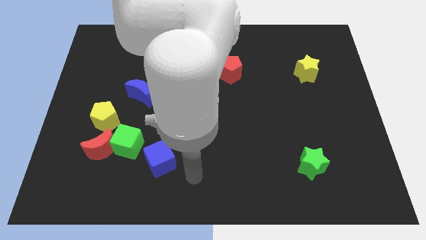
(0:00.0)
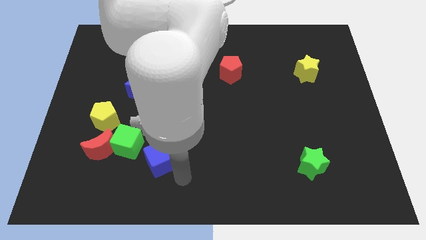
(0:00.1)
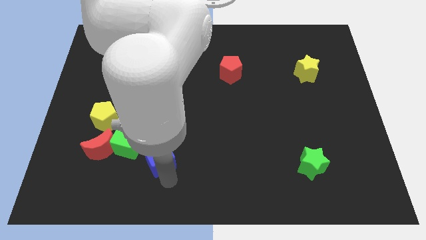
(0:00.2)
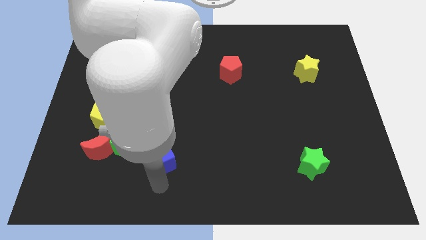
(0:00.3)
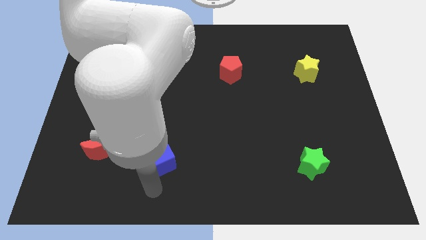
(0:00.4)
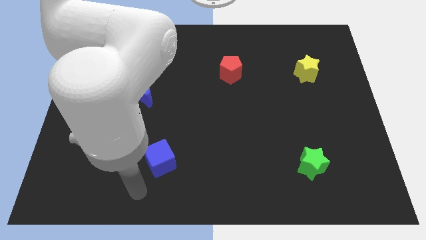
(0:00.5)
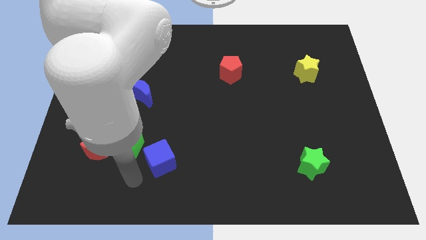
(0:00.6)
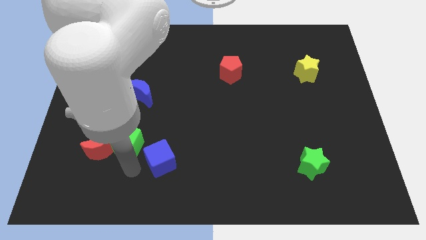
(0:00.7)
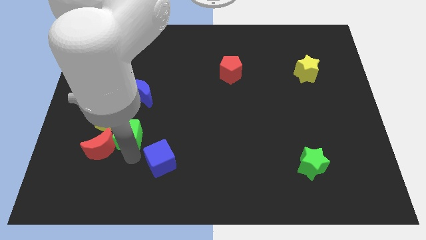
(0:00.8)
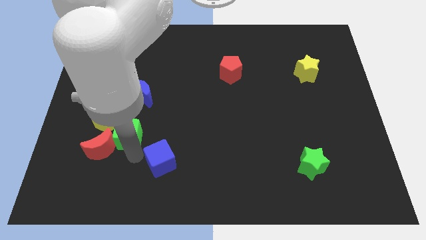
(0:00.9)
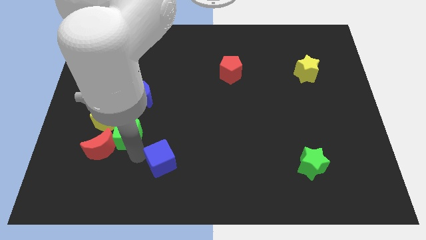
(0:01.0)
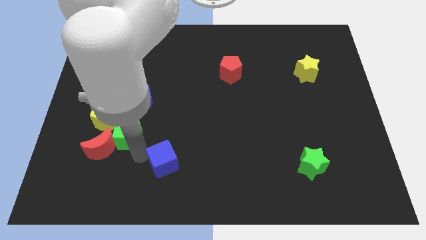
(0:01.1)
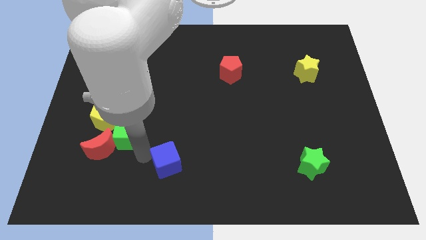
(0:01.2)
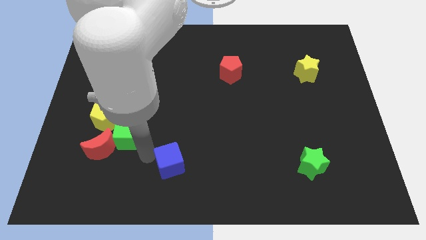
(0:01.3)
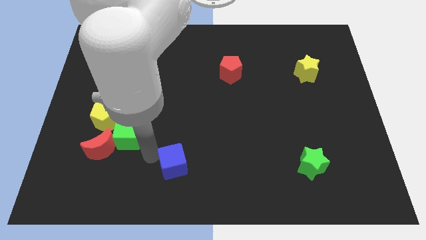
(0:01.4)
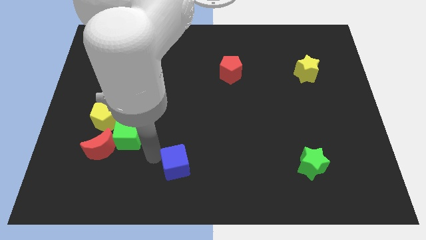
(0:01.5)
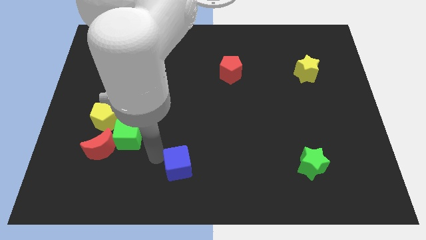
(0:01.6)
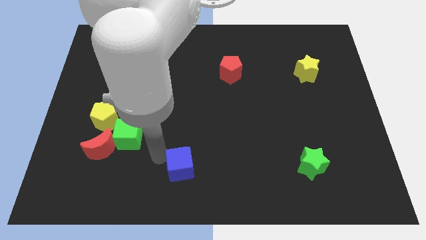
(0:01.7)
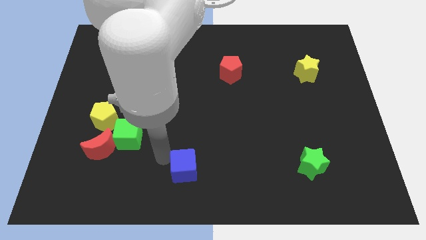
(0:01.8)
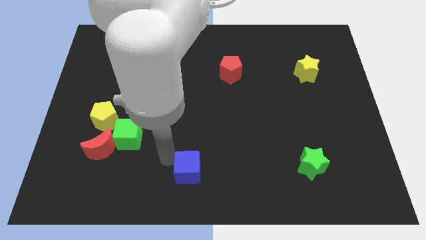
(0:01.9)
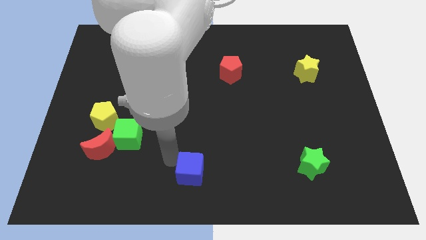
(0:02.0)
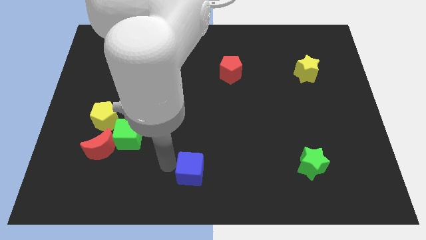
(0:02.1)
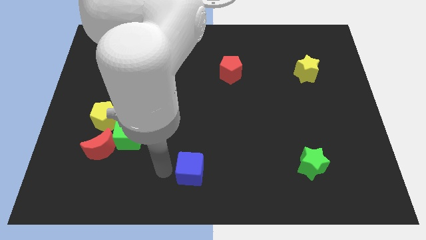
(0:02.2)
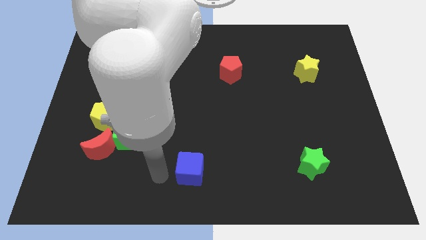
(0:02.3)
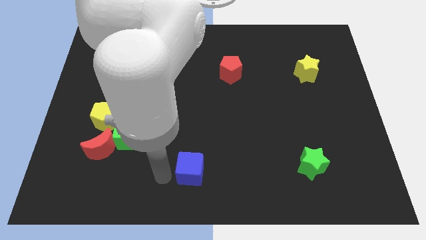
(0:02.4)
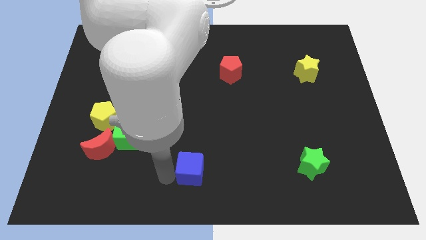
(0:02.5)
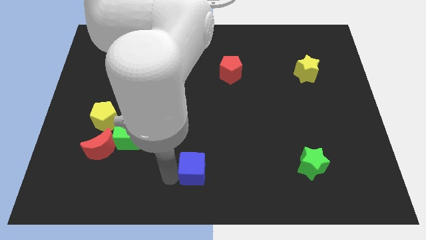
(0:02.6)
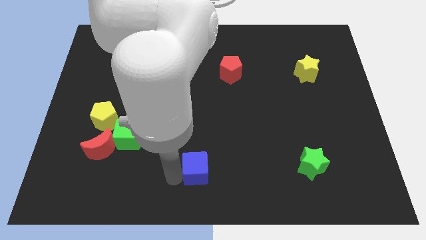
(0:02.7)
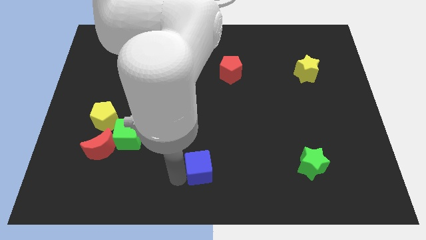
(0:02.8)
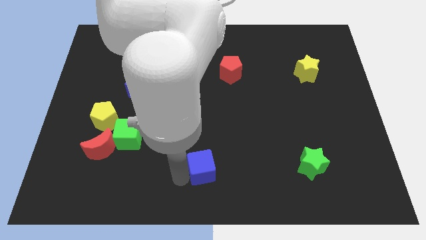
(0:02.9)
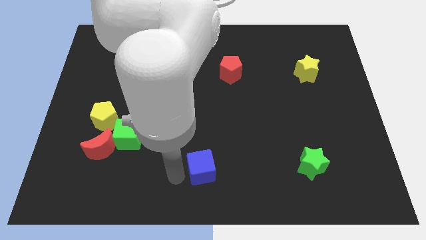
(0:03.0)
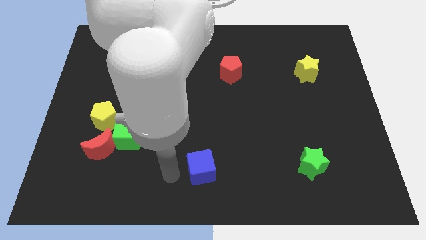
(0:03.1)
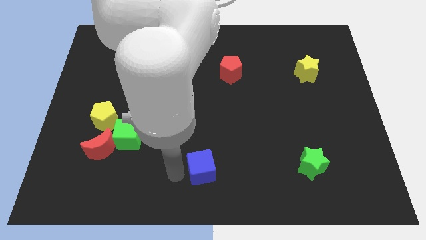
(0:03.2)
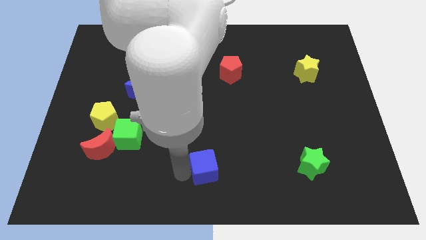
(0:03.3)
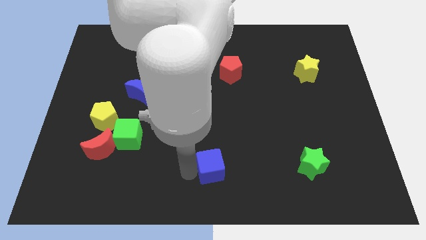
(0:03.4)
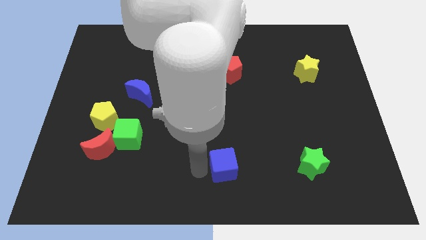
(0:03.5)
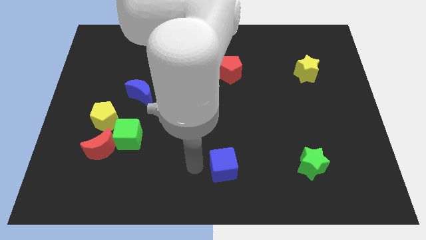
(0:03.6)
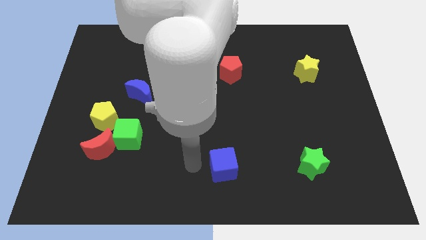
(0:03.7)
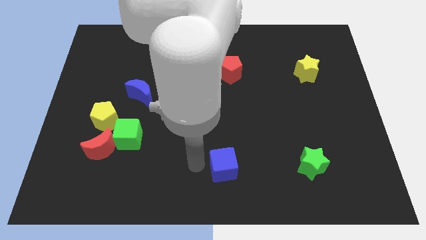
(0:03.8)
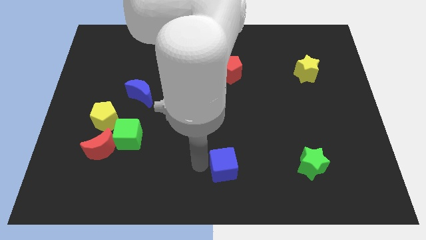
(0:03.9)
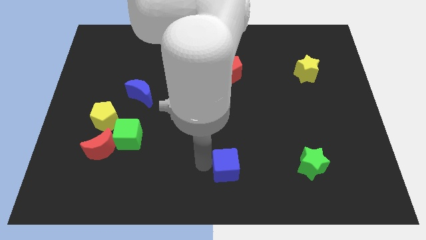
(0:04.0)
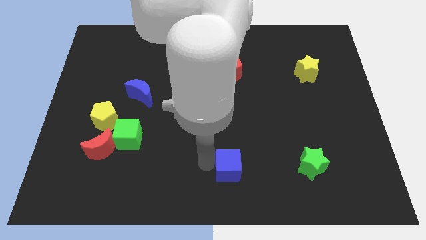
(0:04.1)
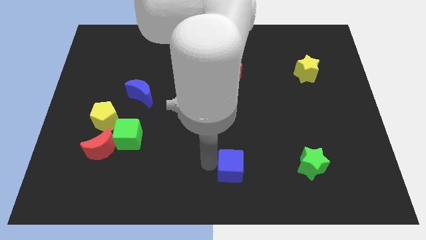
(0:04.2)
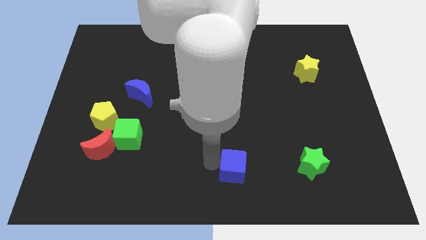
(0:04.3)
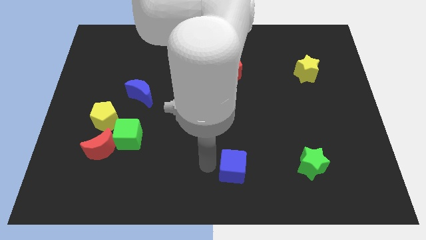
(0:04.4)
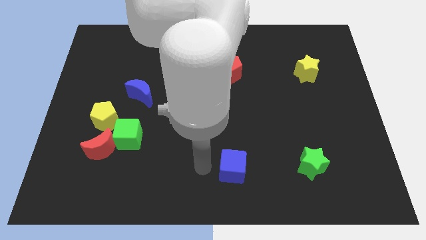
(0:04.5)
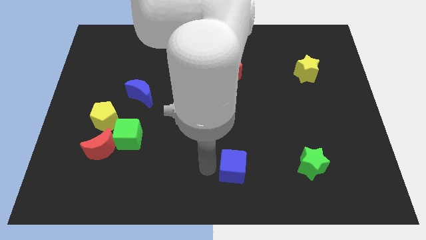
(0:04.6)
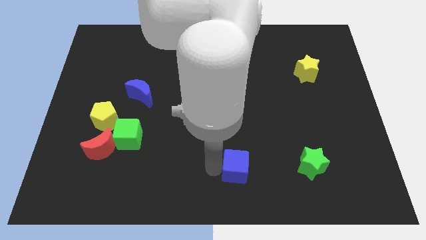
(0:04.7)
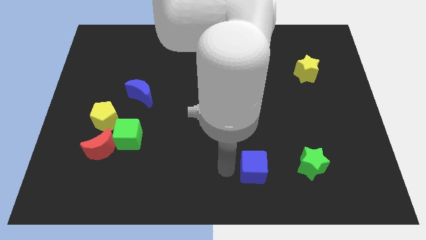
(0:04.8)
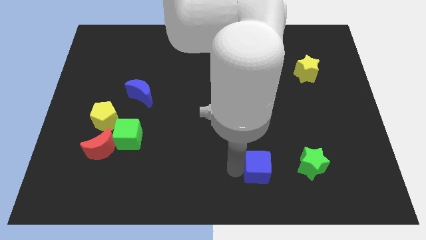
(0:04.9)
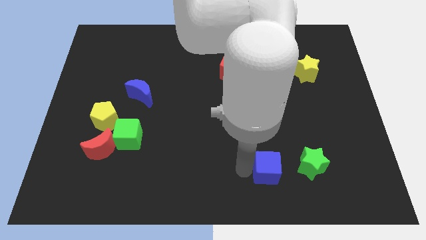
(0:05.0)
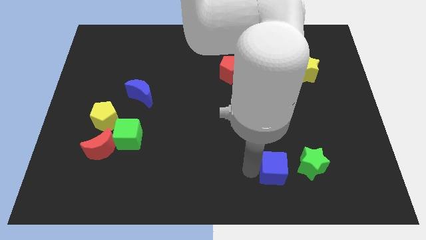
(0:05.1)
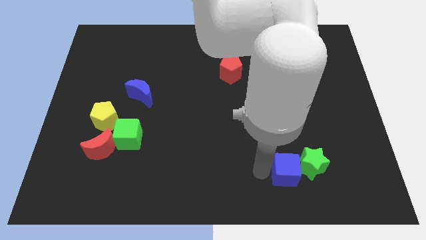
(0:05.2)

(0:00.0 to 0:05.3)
move the blue cube to the green star

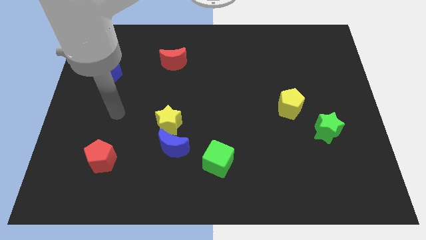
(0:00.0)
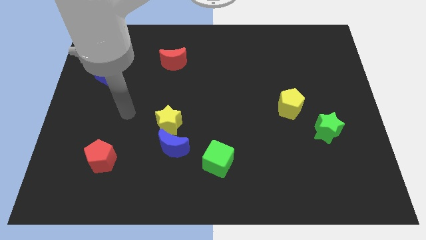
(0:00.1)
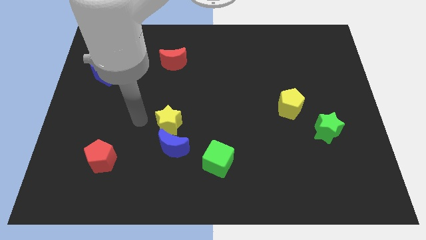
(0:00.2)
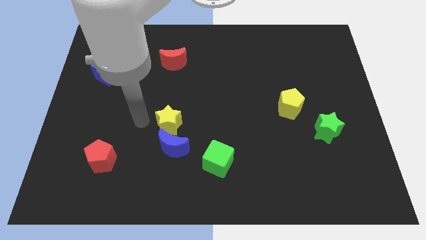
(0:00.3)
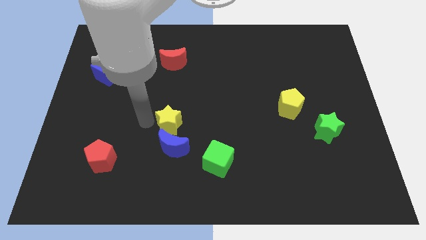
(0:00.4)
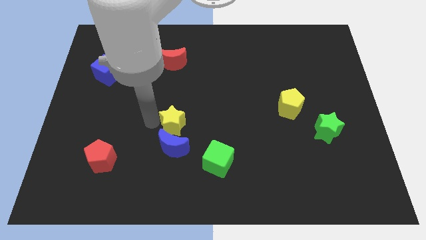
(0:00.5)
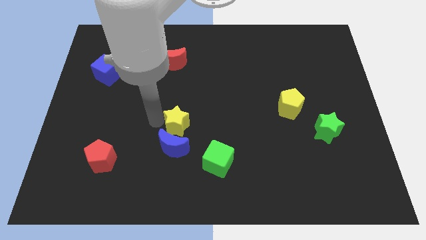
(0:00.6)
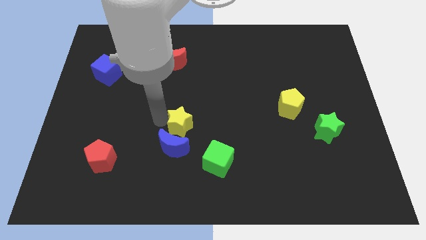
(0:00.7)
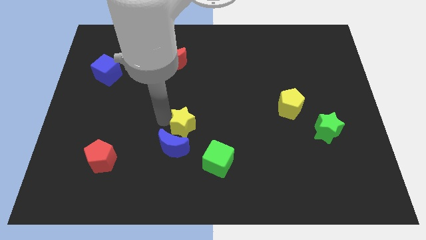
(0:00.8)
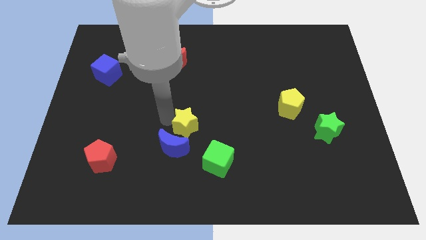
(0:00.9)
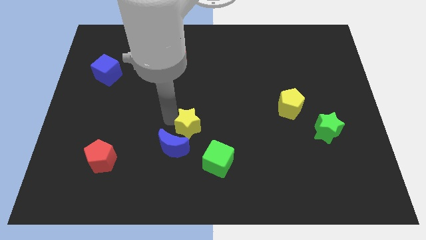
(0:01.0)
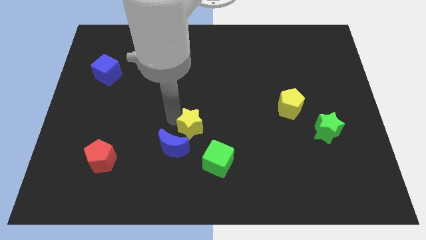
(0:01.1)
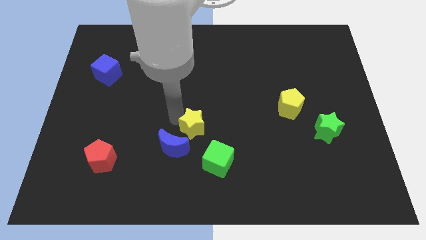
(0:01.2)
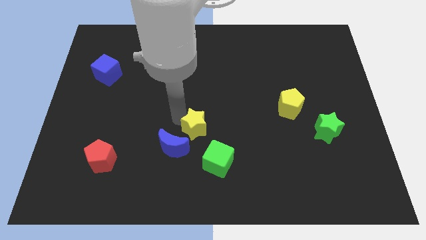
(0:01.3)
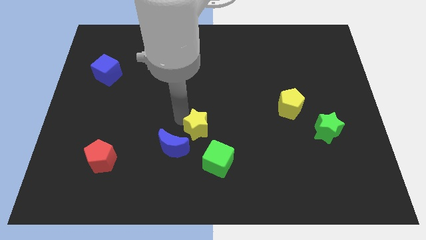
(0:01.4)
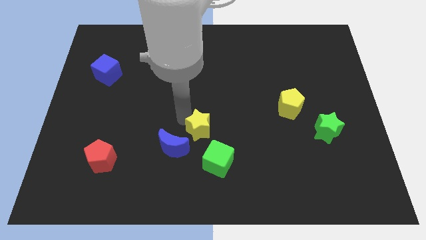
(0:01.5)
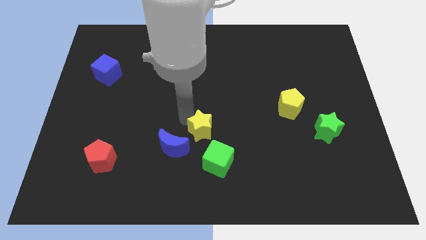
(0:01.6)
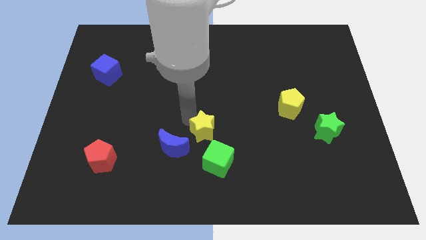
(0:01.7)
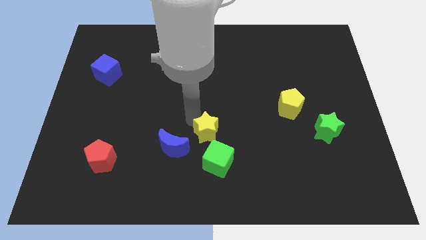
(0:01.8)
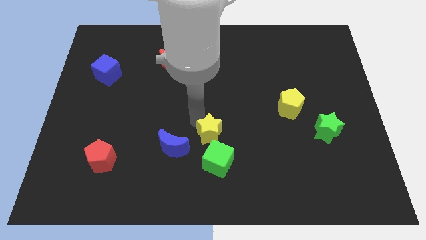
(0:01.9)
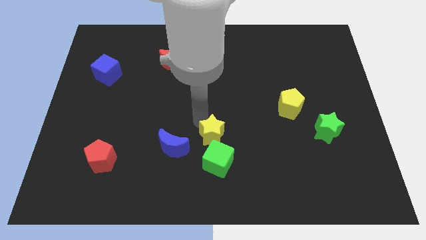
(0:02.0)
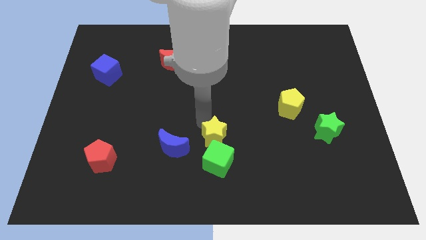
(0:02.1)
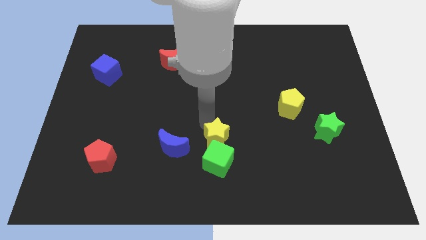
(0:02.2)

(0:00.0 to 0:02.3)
push the yellow star close to the green cube
